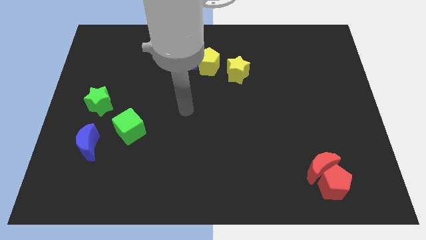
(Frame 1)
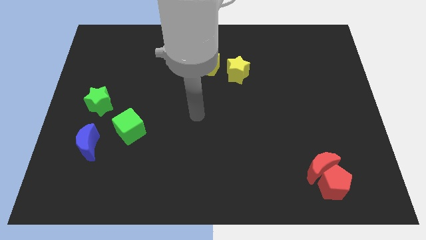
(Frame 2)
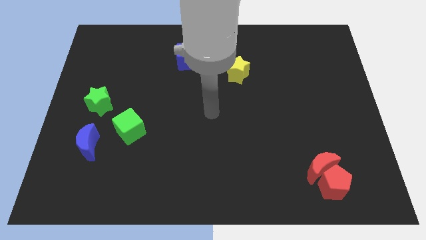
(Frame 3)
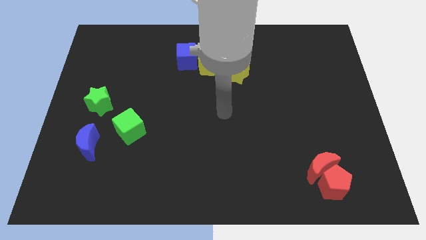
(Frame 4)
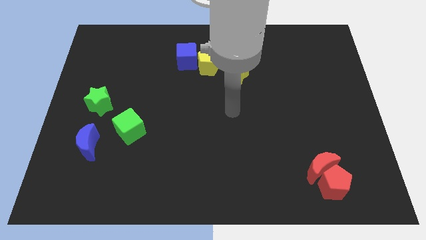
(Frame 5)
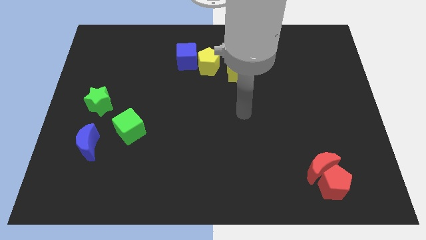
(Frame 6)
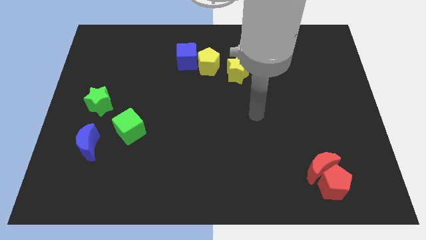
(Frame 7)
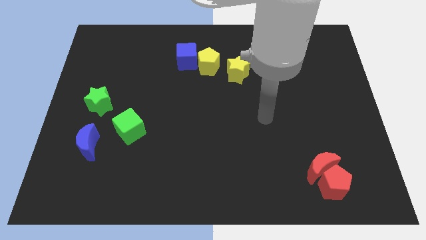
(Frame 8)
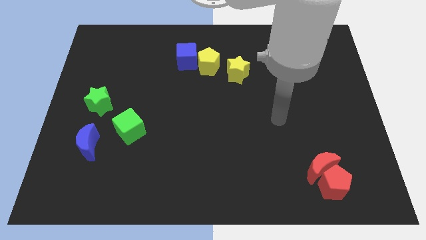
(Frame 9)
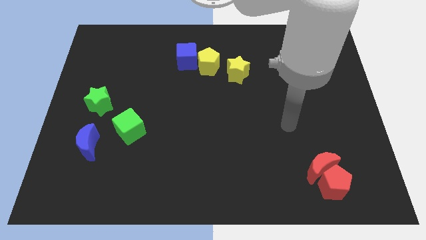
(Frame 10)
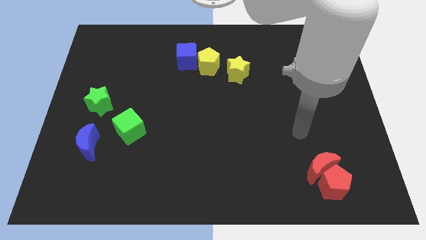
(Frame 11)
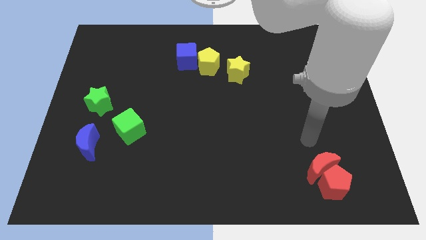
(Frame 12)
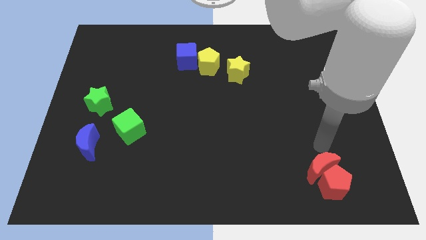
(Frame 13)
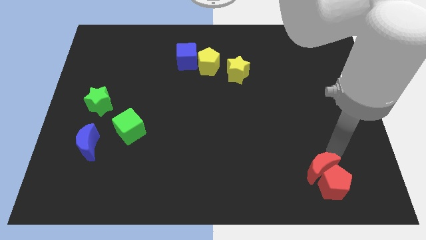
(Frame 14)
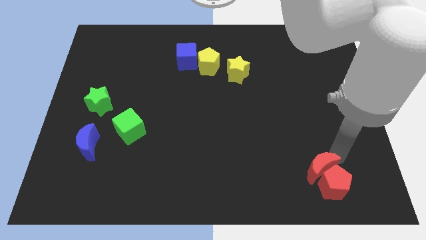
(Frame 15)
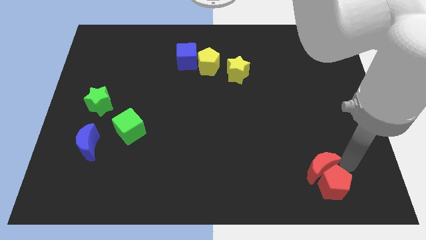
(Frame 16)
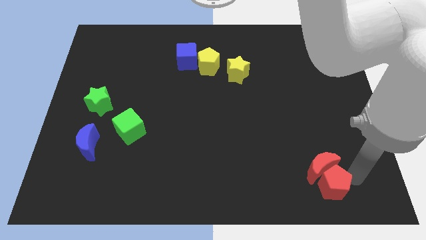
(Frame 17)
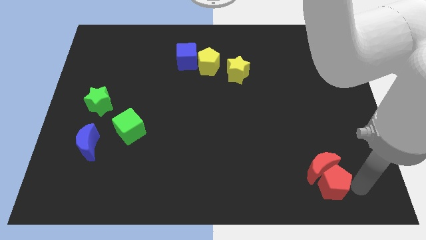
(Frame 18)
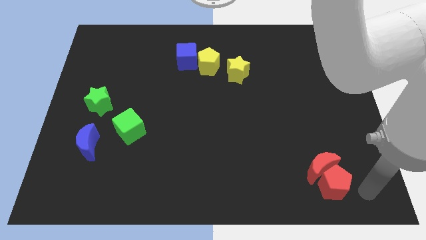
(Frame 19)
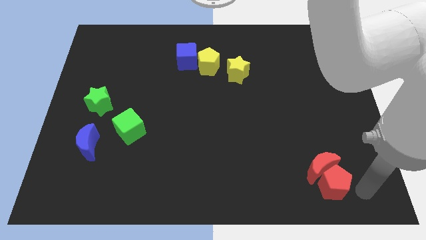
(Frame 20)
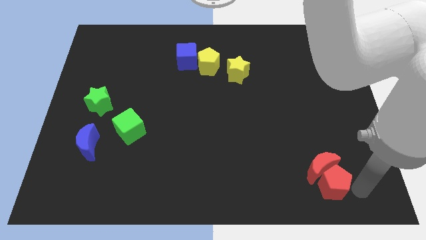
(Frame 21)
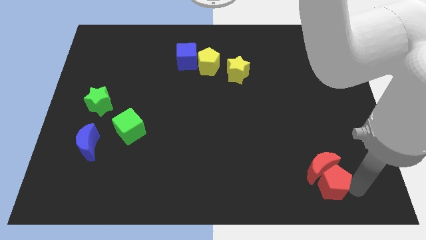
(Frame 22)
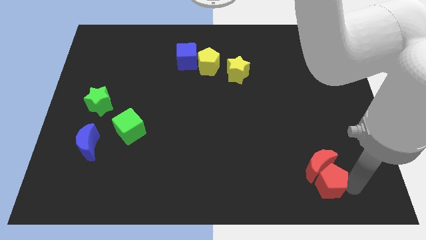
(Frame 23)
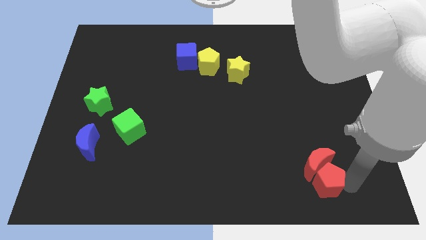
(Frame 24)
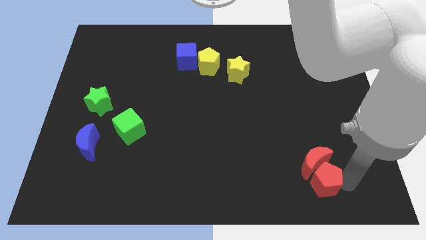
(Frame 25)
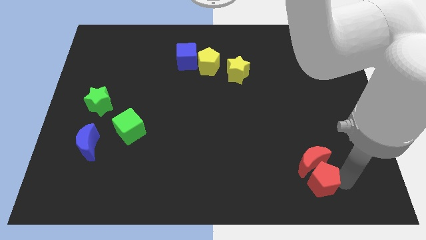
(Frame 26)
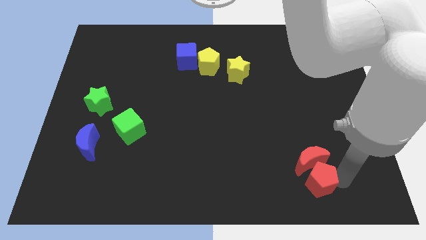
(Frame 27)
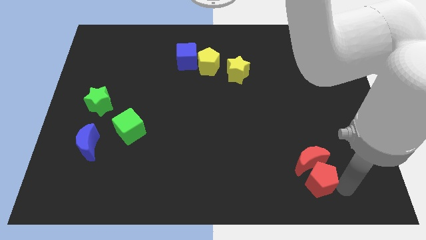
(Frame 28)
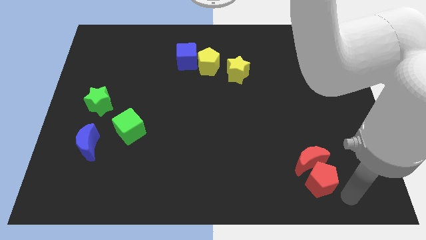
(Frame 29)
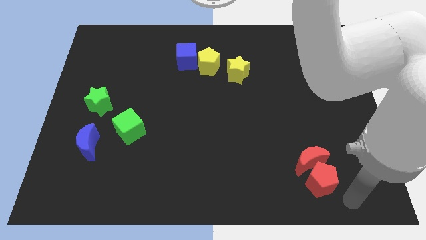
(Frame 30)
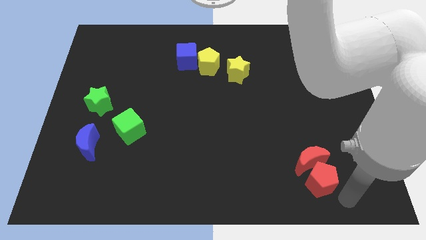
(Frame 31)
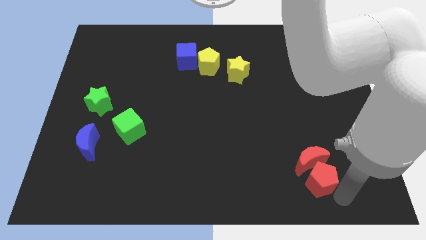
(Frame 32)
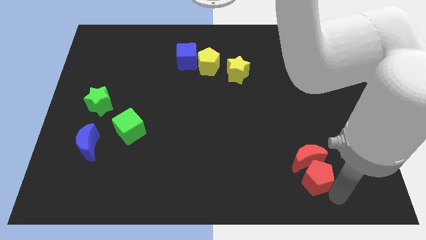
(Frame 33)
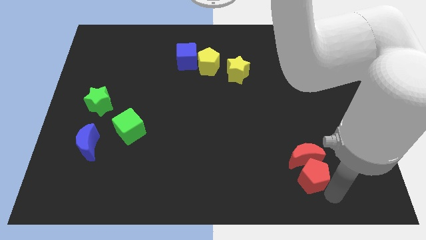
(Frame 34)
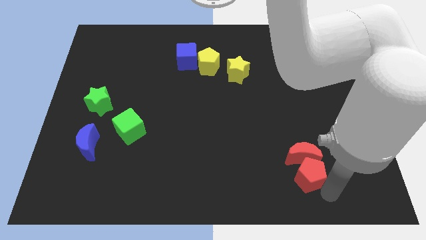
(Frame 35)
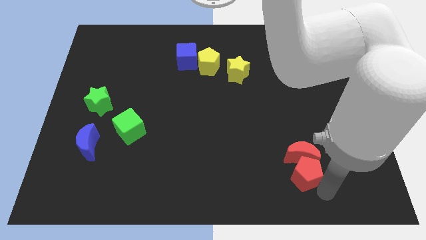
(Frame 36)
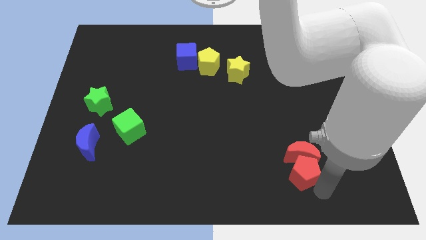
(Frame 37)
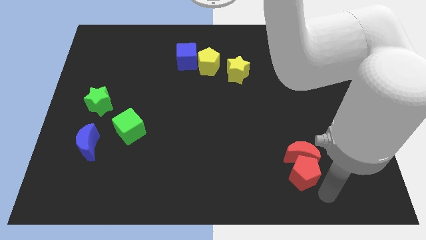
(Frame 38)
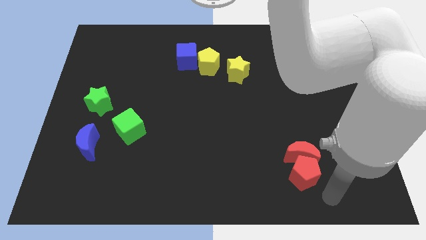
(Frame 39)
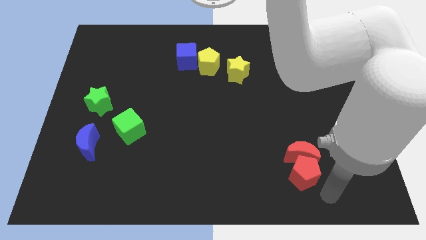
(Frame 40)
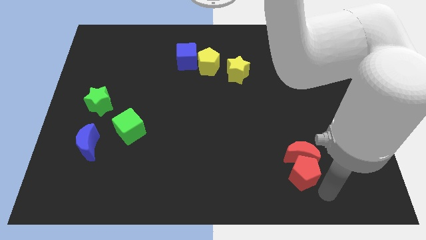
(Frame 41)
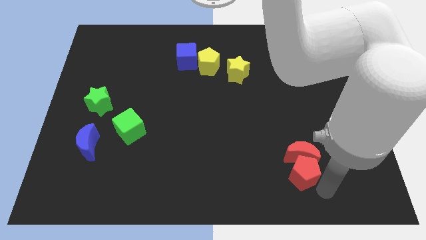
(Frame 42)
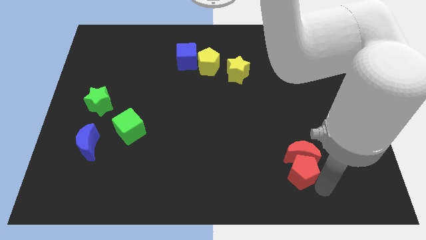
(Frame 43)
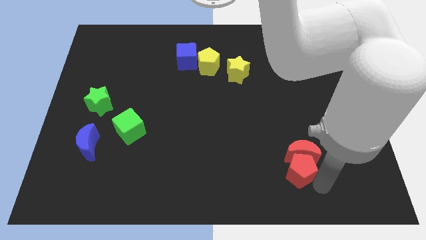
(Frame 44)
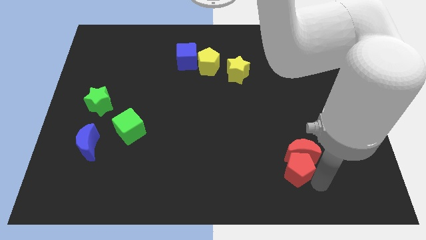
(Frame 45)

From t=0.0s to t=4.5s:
slightly move the red pentagon upwards and then left

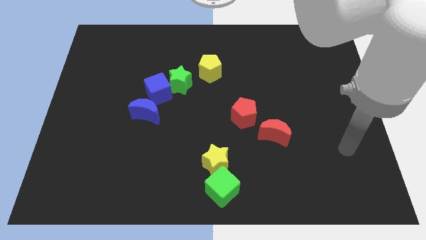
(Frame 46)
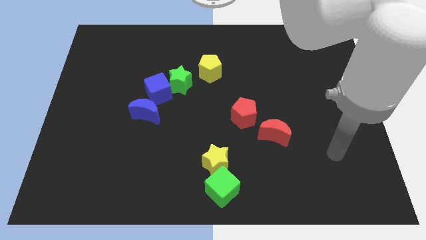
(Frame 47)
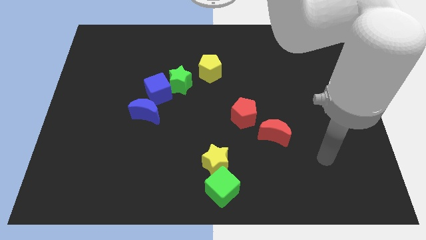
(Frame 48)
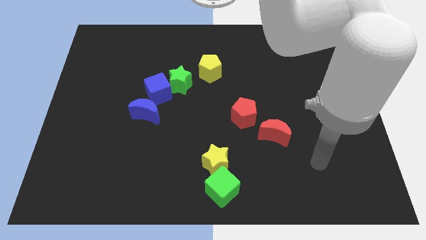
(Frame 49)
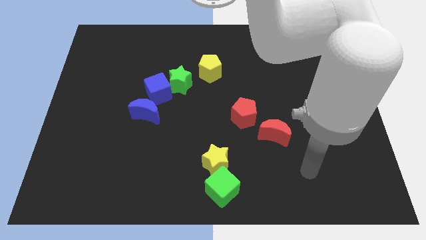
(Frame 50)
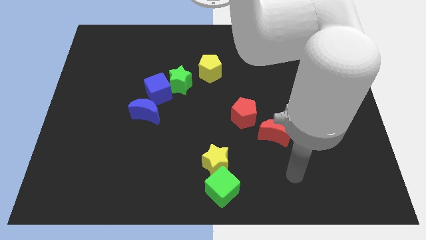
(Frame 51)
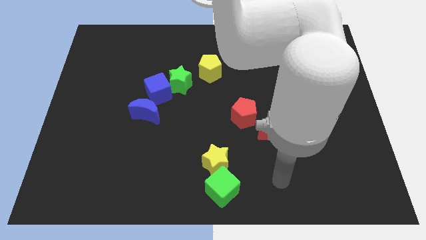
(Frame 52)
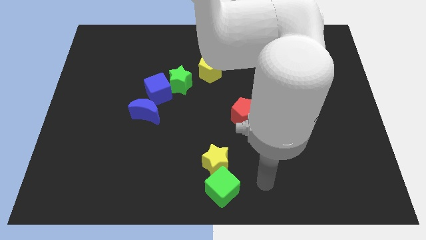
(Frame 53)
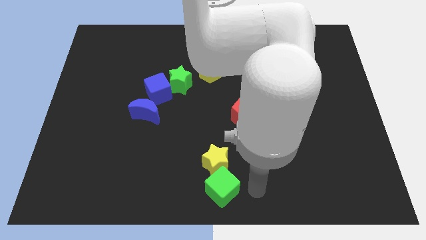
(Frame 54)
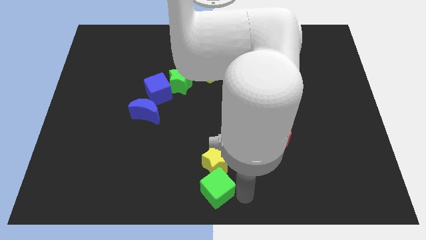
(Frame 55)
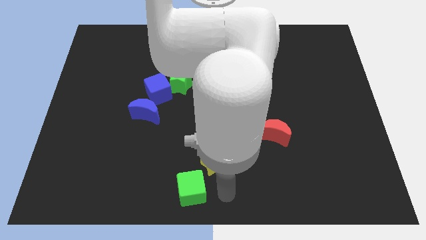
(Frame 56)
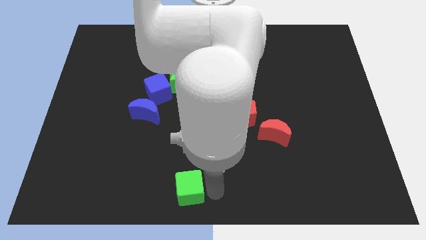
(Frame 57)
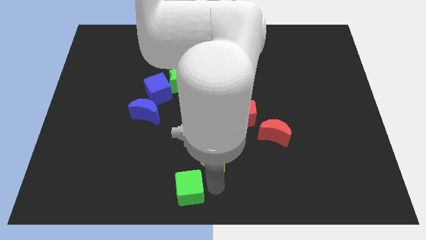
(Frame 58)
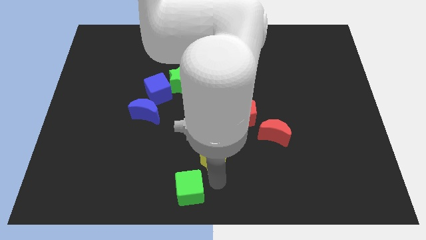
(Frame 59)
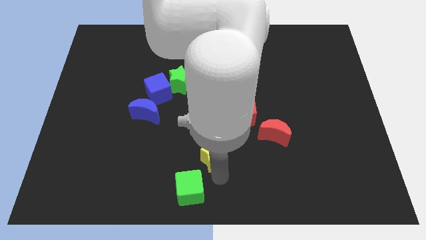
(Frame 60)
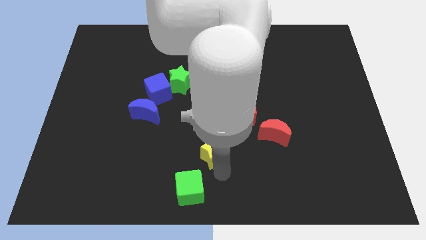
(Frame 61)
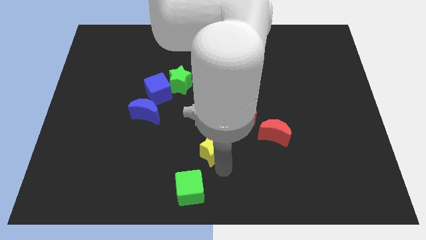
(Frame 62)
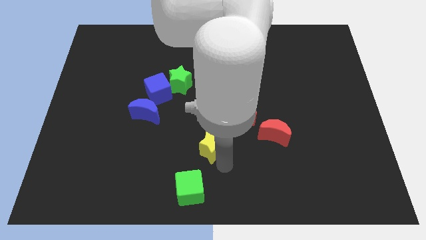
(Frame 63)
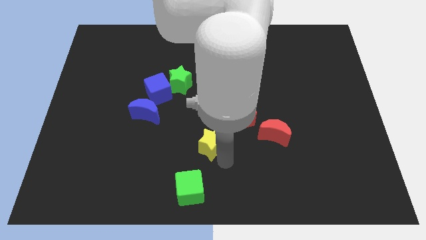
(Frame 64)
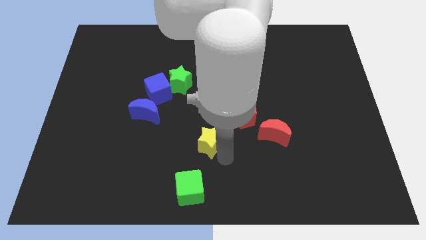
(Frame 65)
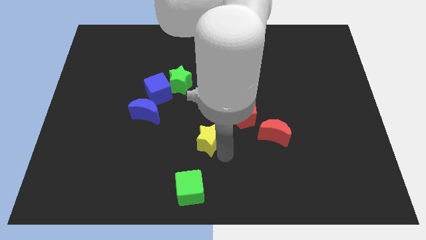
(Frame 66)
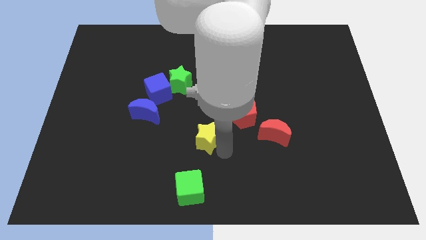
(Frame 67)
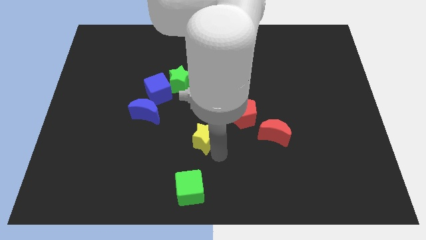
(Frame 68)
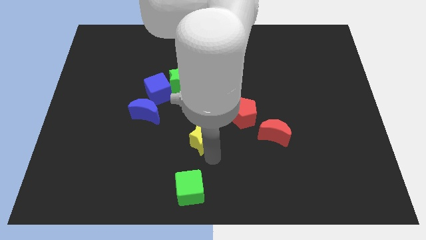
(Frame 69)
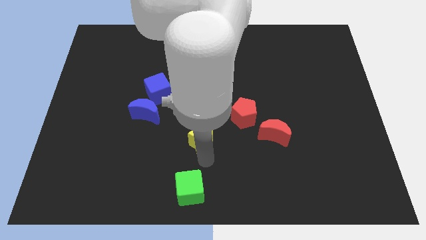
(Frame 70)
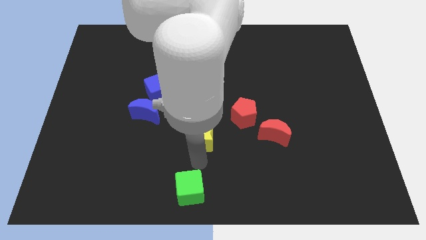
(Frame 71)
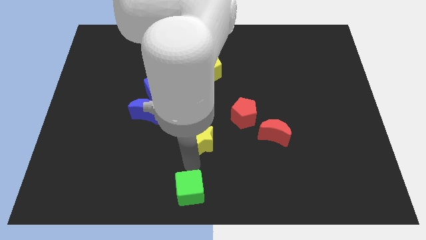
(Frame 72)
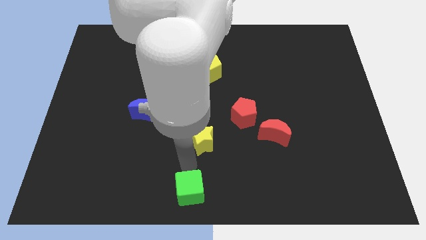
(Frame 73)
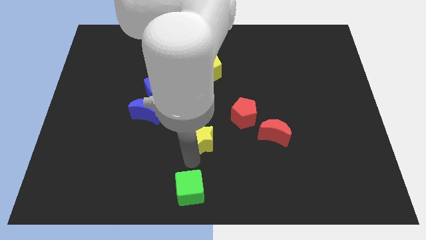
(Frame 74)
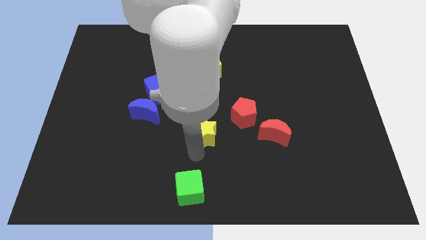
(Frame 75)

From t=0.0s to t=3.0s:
move the yellow star a little upwards

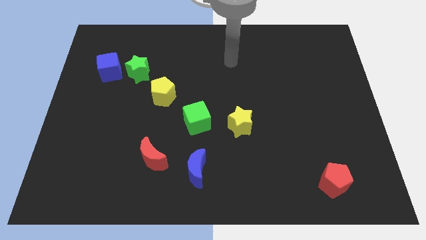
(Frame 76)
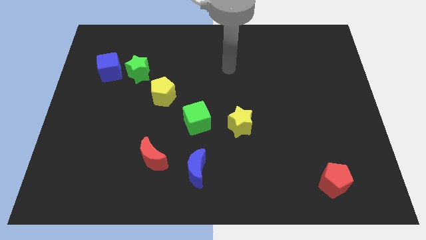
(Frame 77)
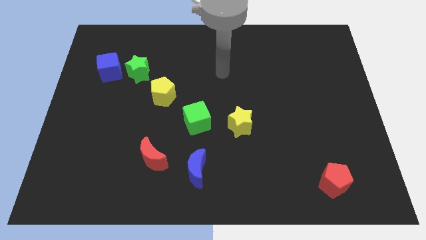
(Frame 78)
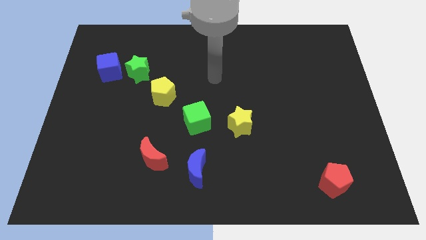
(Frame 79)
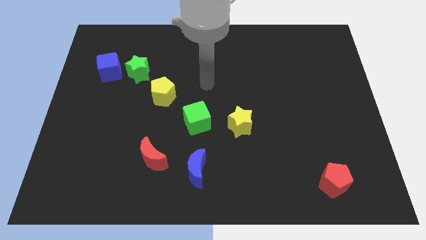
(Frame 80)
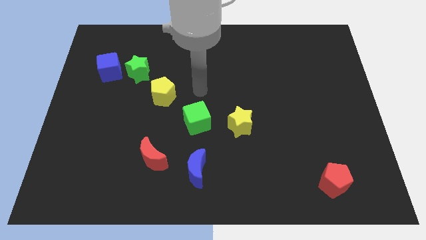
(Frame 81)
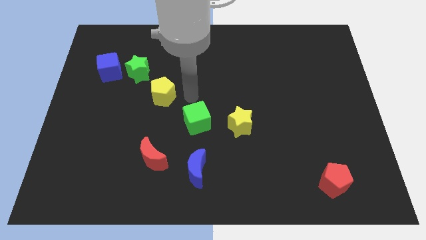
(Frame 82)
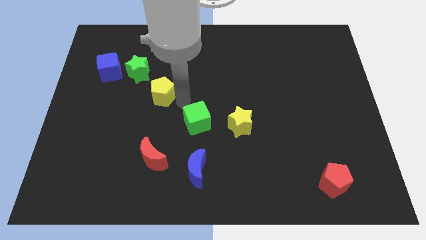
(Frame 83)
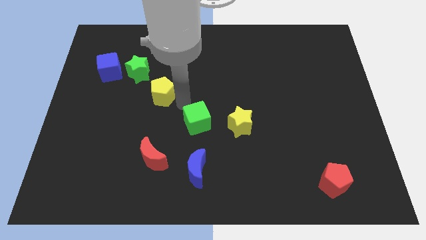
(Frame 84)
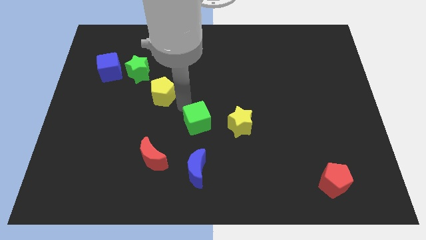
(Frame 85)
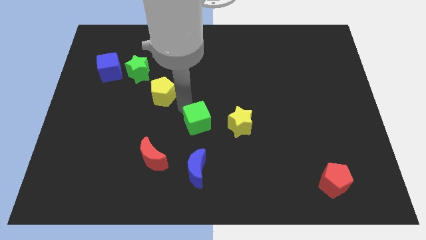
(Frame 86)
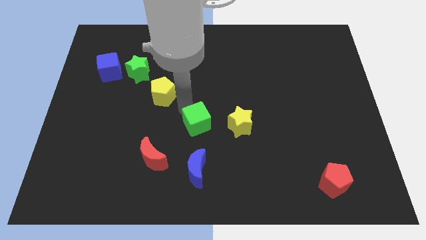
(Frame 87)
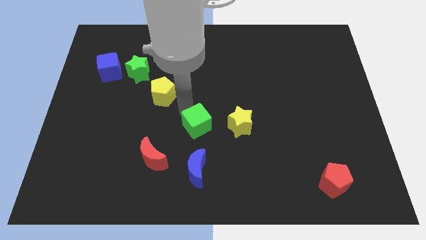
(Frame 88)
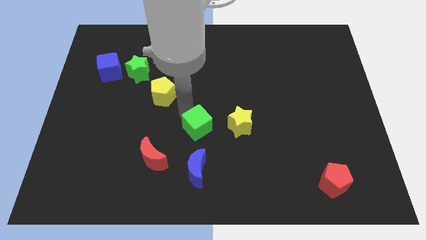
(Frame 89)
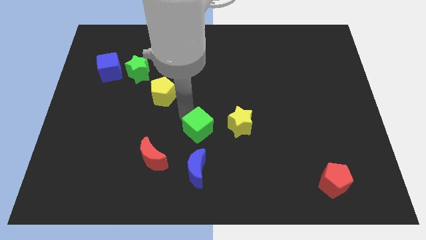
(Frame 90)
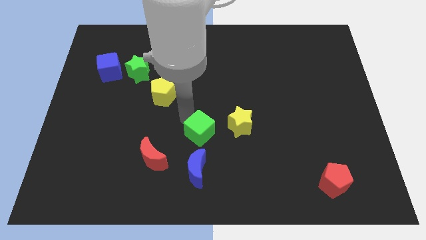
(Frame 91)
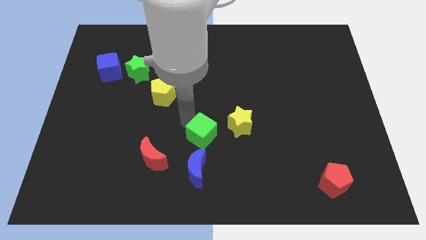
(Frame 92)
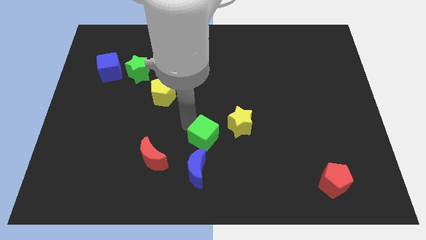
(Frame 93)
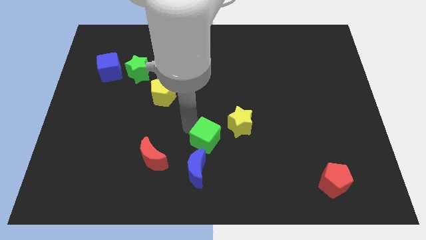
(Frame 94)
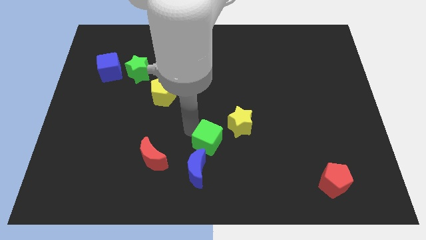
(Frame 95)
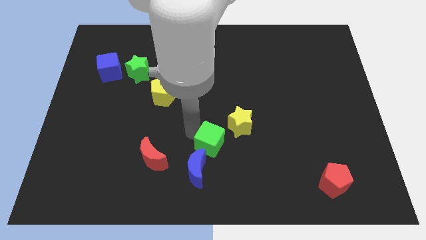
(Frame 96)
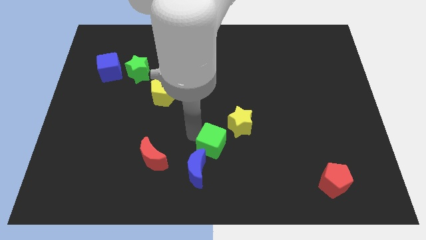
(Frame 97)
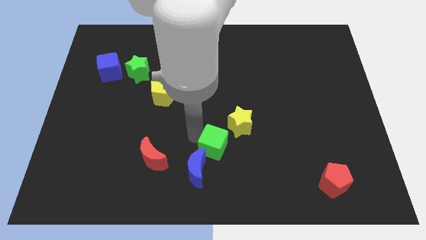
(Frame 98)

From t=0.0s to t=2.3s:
slightly move the green cube downwards and then to the right
